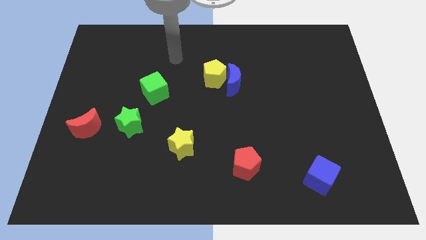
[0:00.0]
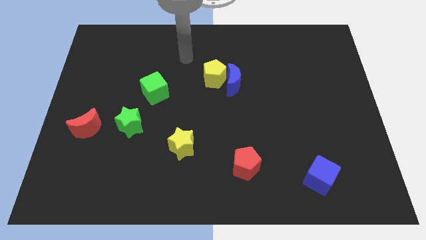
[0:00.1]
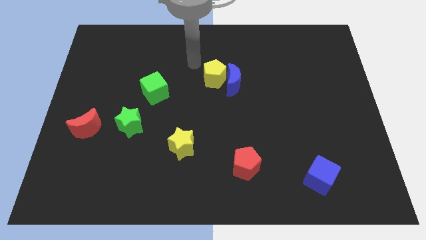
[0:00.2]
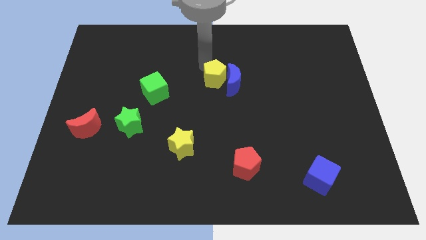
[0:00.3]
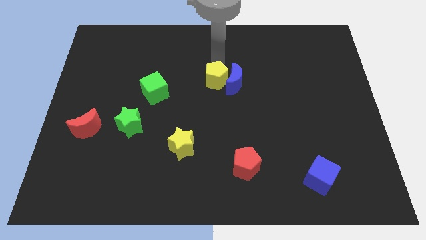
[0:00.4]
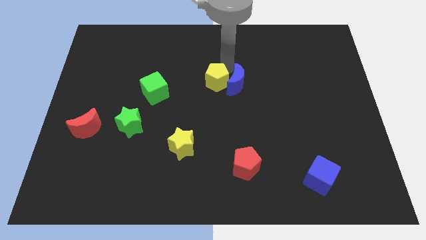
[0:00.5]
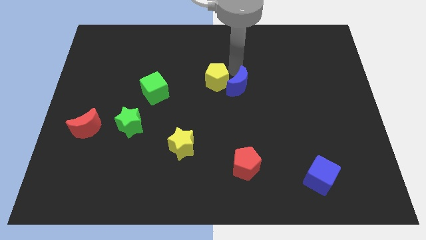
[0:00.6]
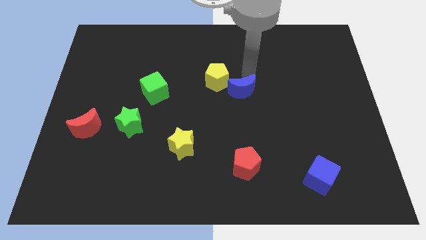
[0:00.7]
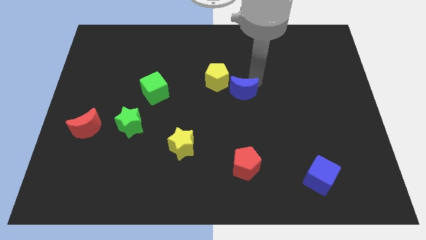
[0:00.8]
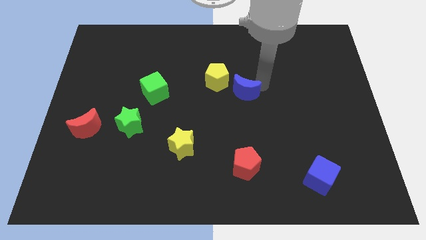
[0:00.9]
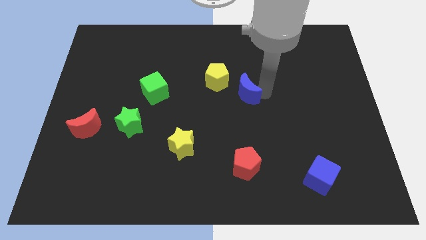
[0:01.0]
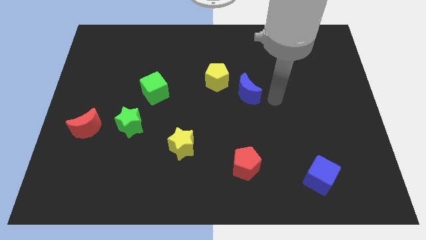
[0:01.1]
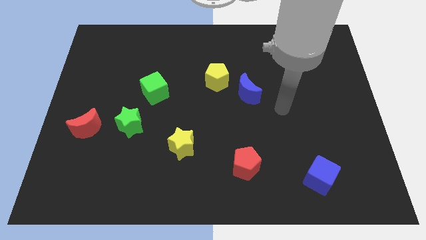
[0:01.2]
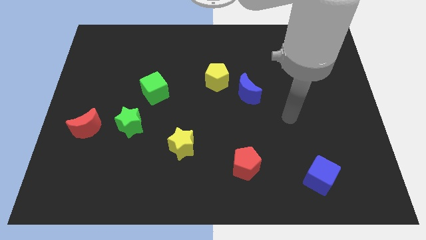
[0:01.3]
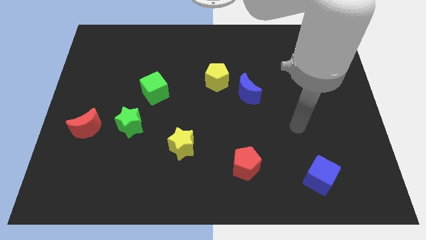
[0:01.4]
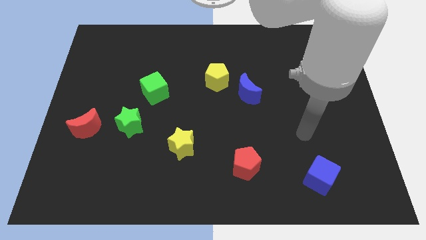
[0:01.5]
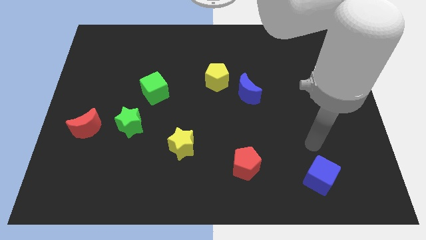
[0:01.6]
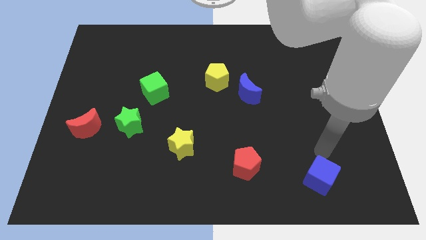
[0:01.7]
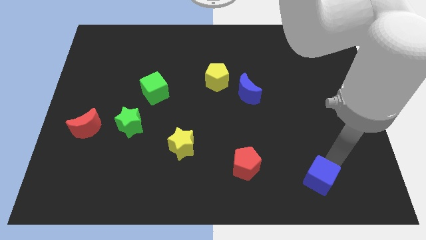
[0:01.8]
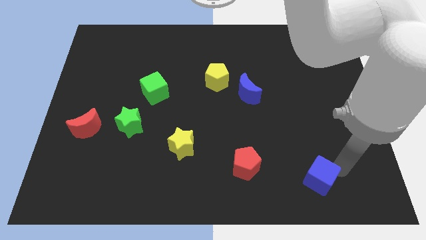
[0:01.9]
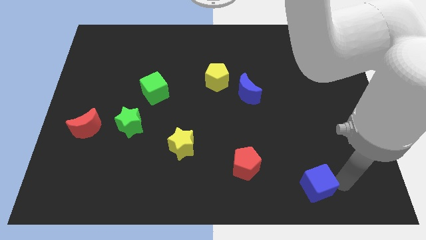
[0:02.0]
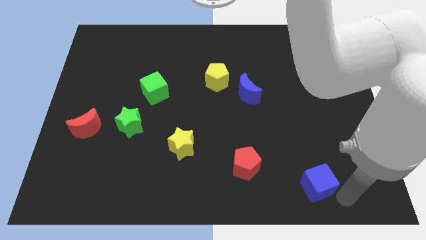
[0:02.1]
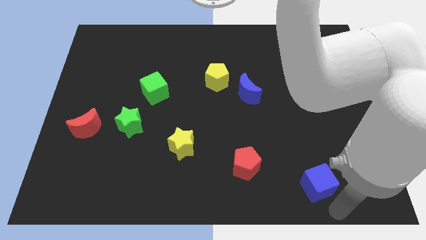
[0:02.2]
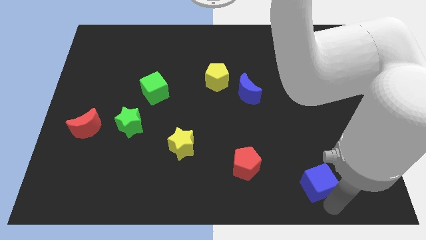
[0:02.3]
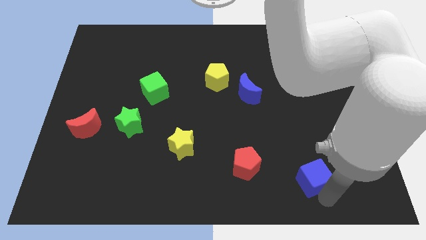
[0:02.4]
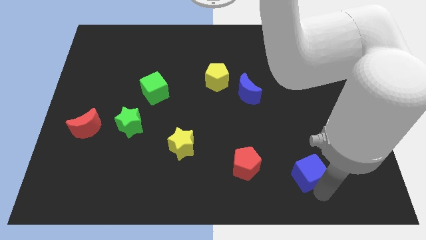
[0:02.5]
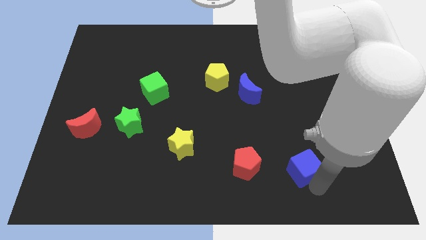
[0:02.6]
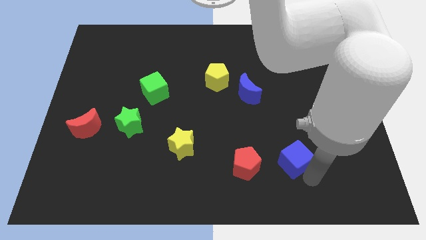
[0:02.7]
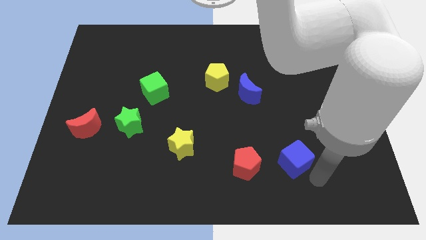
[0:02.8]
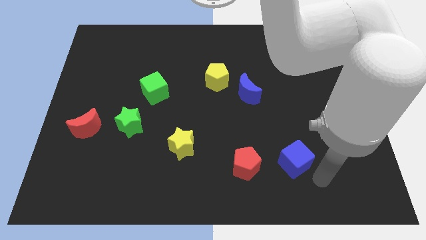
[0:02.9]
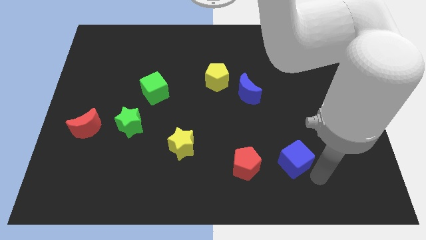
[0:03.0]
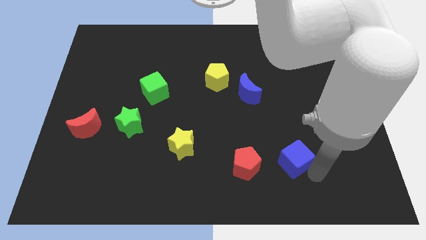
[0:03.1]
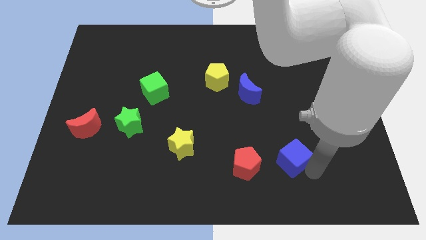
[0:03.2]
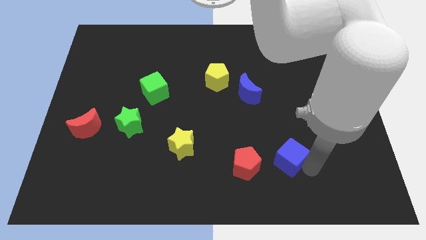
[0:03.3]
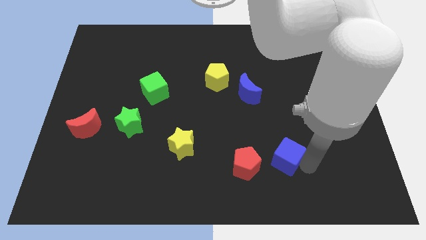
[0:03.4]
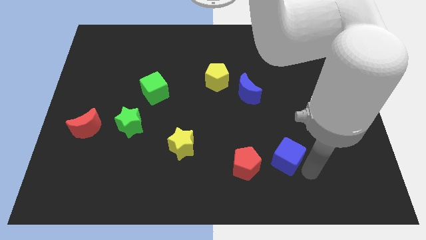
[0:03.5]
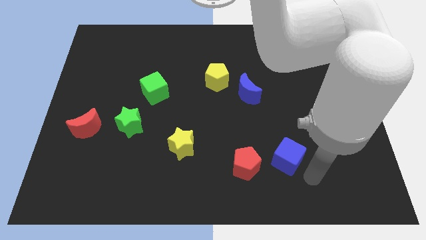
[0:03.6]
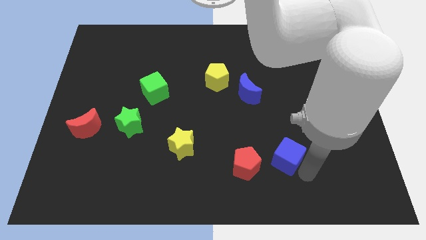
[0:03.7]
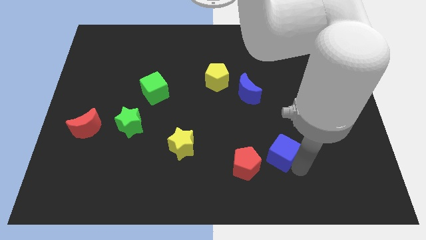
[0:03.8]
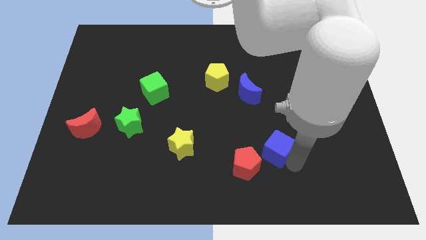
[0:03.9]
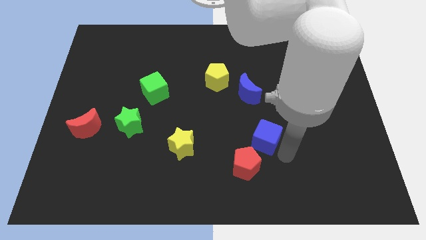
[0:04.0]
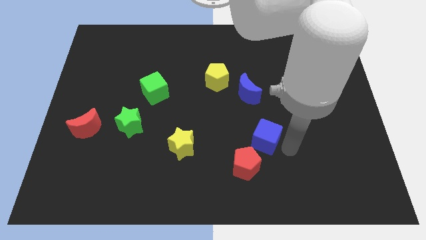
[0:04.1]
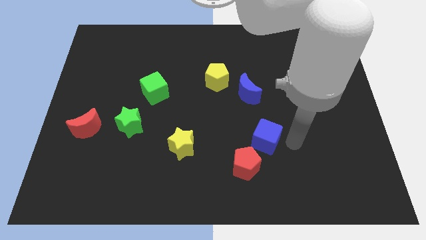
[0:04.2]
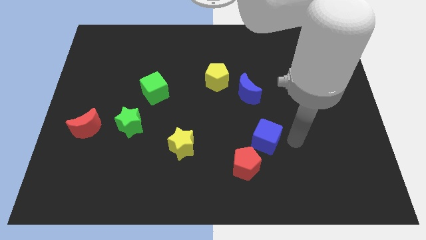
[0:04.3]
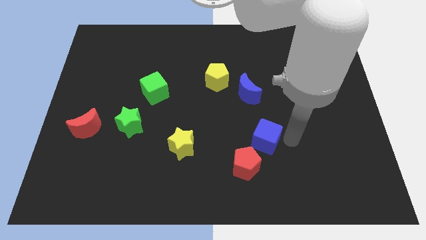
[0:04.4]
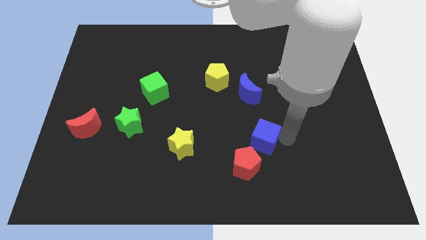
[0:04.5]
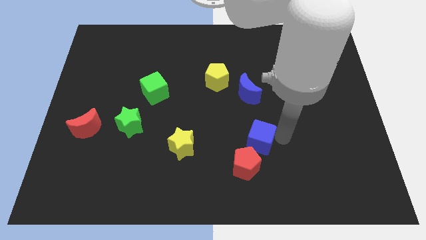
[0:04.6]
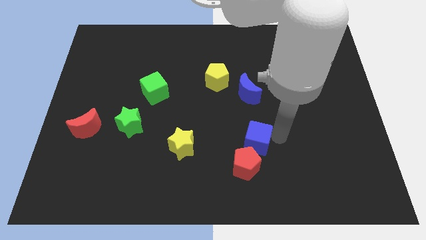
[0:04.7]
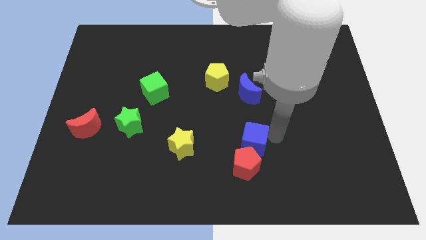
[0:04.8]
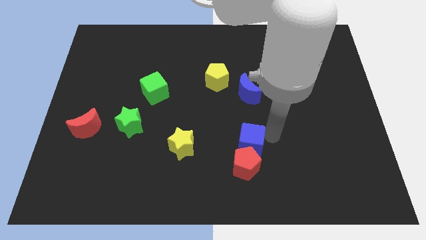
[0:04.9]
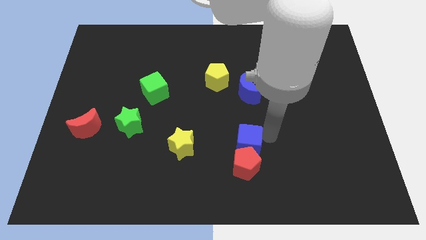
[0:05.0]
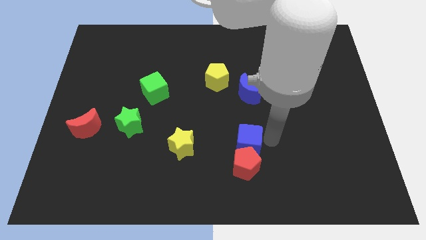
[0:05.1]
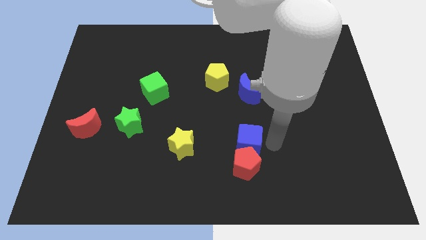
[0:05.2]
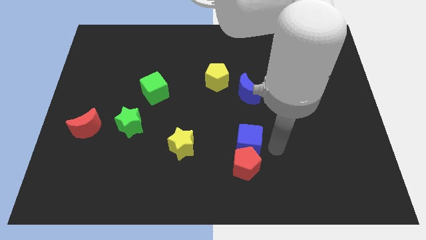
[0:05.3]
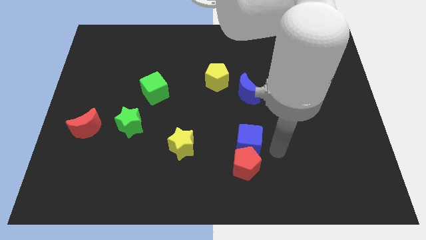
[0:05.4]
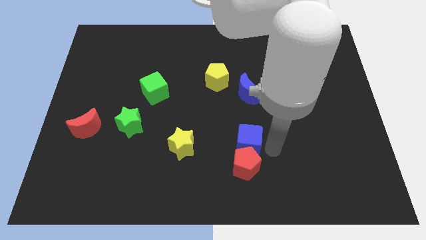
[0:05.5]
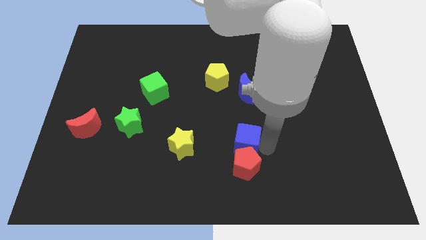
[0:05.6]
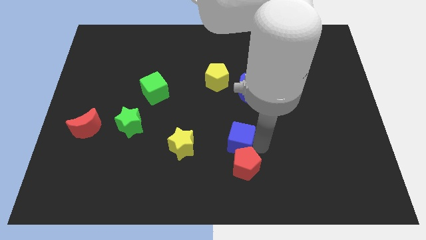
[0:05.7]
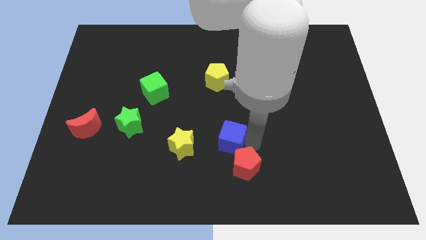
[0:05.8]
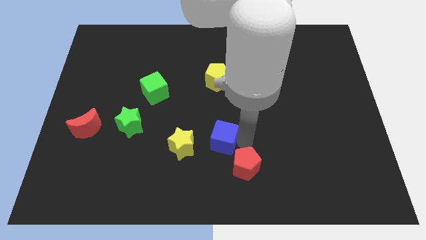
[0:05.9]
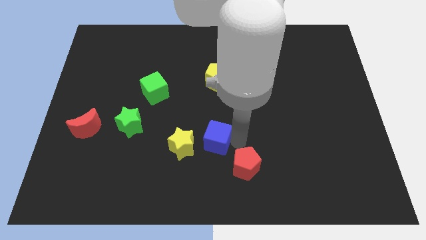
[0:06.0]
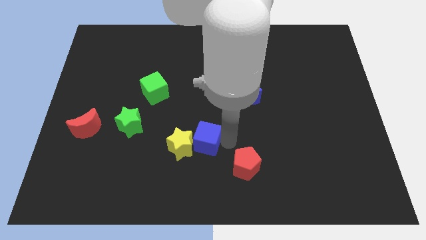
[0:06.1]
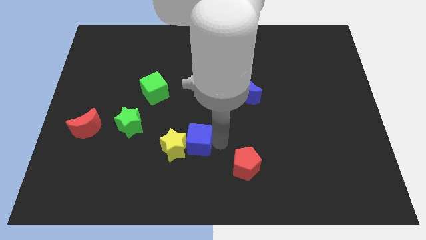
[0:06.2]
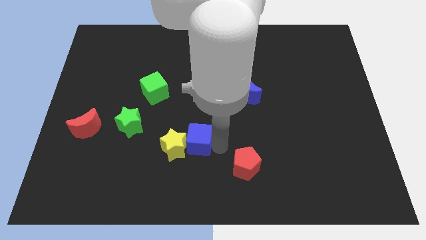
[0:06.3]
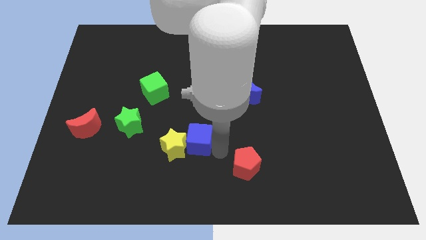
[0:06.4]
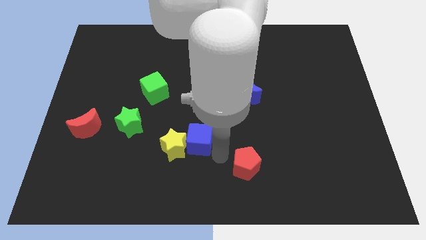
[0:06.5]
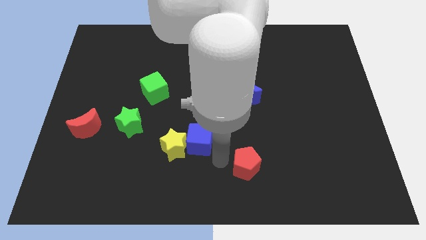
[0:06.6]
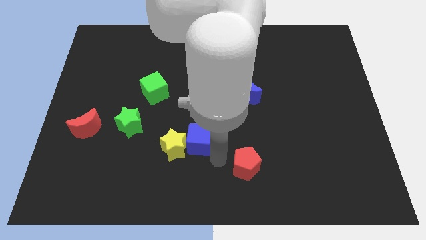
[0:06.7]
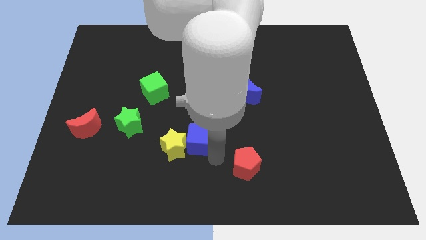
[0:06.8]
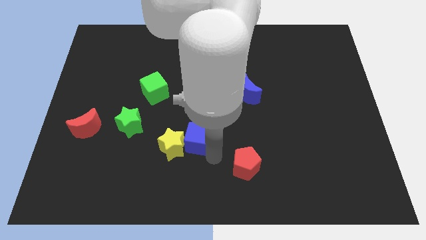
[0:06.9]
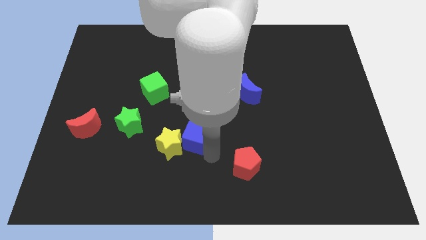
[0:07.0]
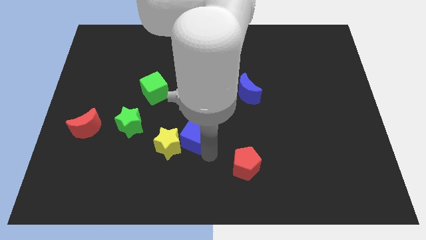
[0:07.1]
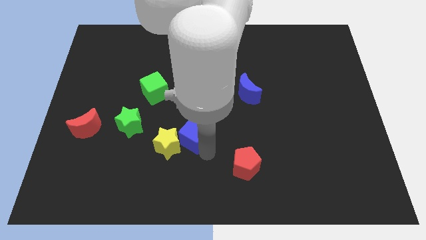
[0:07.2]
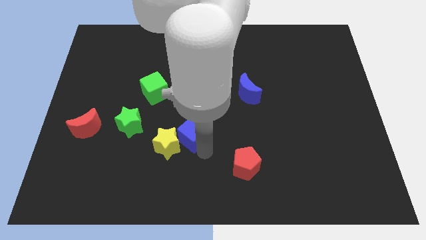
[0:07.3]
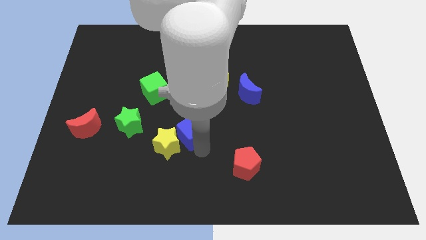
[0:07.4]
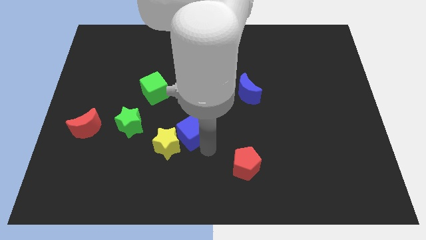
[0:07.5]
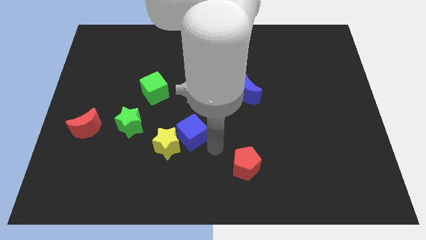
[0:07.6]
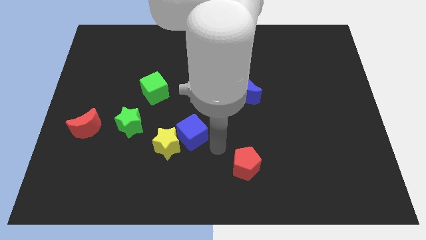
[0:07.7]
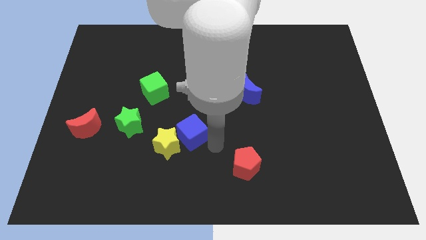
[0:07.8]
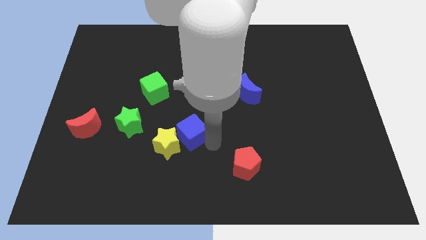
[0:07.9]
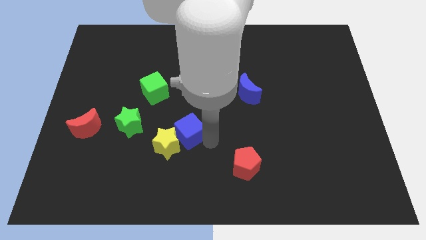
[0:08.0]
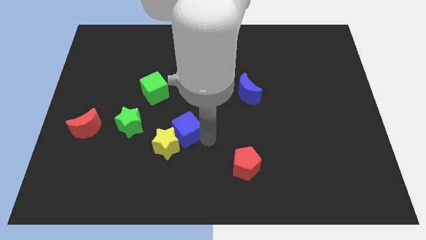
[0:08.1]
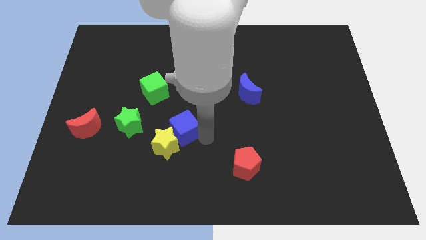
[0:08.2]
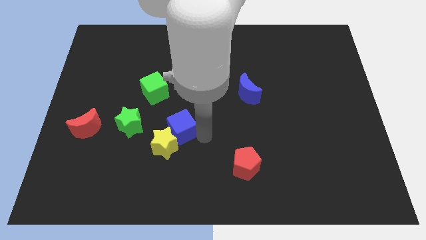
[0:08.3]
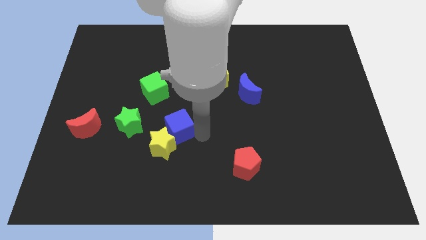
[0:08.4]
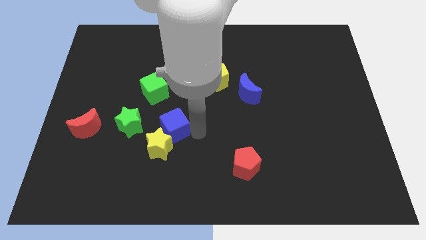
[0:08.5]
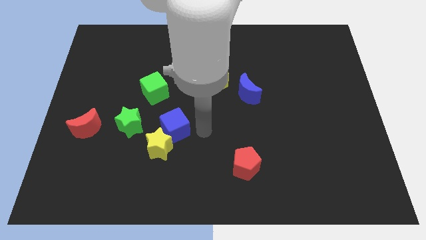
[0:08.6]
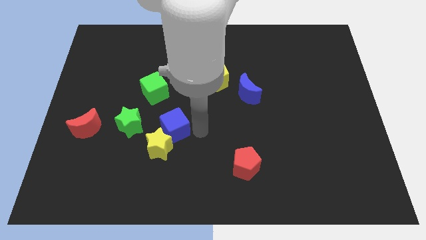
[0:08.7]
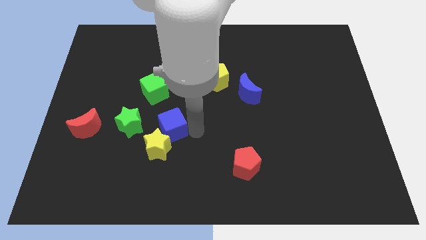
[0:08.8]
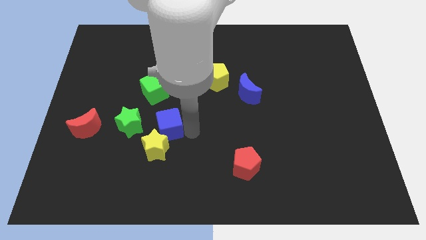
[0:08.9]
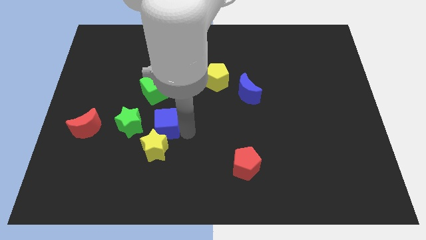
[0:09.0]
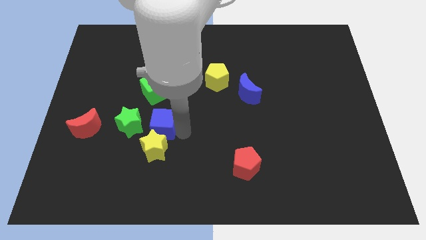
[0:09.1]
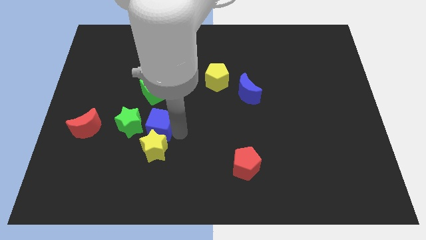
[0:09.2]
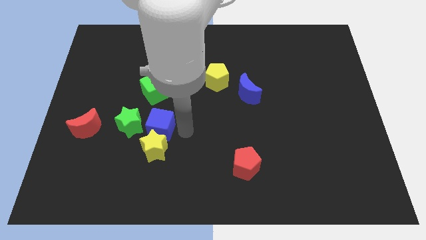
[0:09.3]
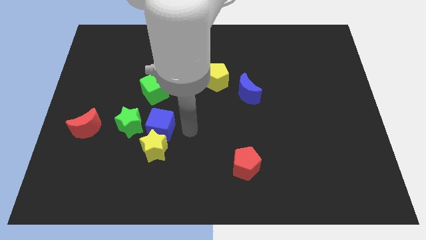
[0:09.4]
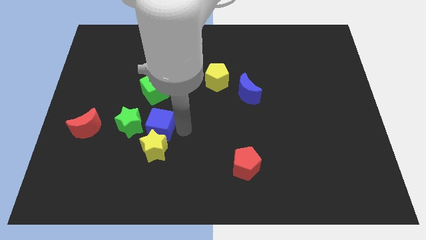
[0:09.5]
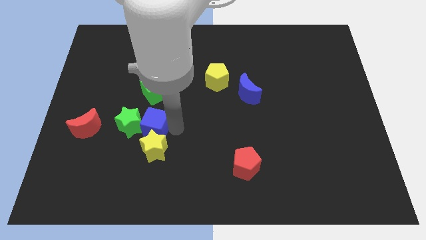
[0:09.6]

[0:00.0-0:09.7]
push the blue cube next to the green star
